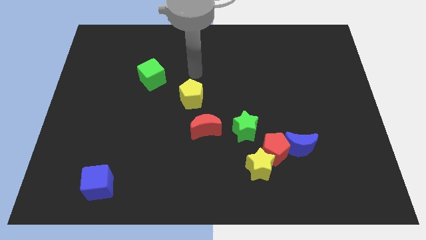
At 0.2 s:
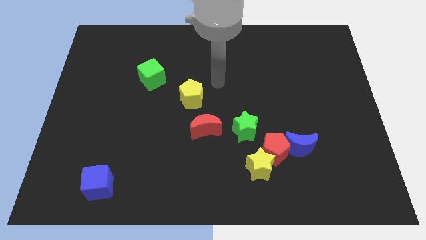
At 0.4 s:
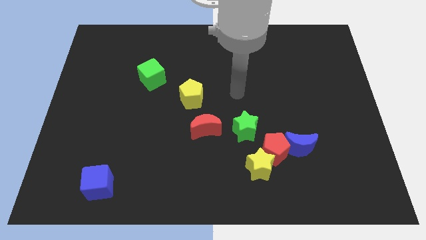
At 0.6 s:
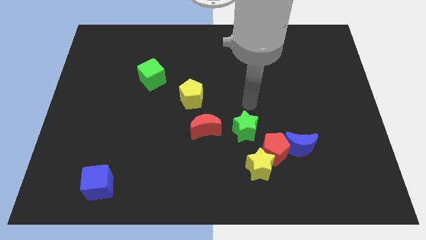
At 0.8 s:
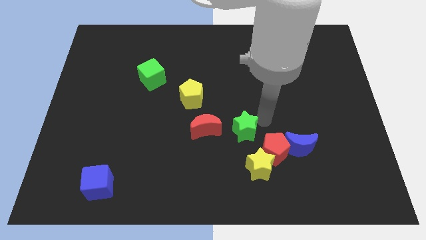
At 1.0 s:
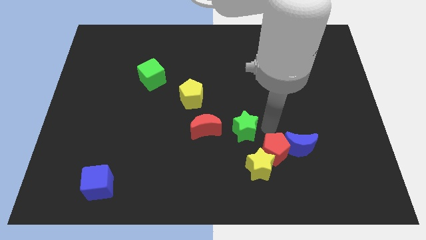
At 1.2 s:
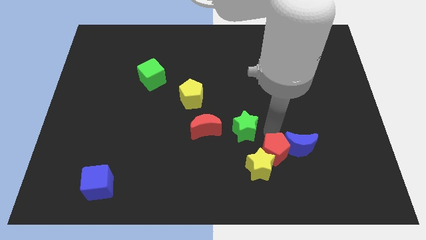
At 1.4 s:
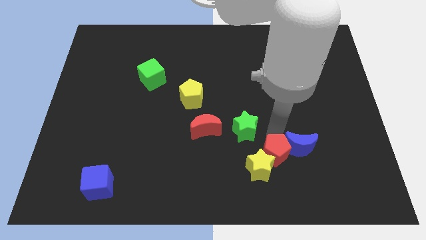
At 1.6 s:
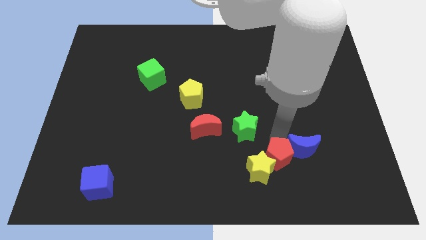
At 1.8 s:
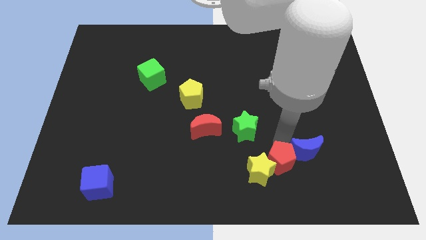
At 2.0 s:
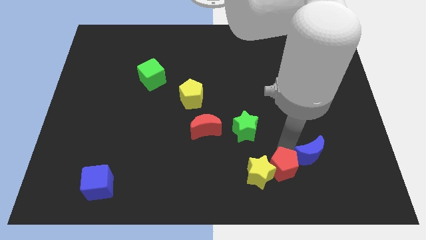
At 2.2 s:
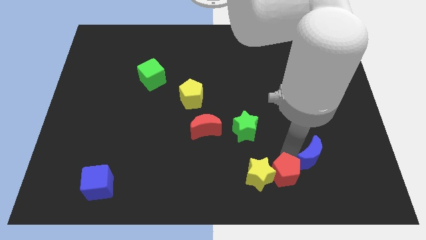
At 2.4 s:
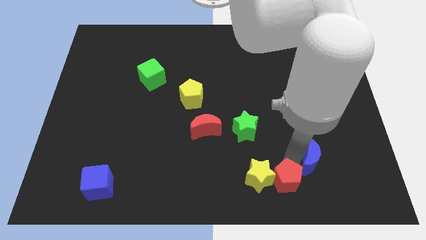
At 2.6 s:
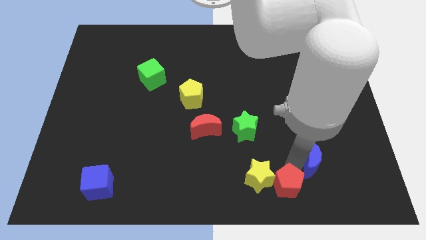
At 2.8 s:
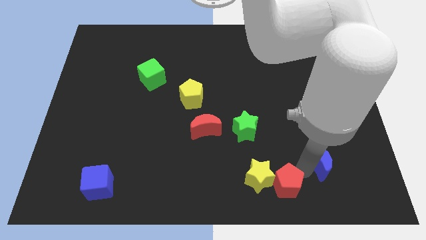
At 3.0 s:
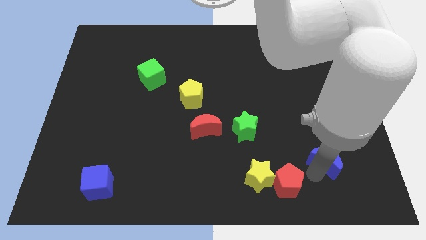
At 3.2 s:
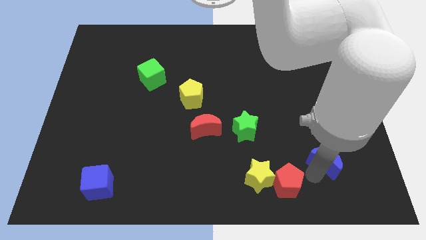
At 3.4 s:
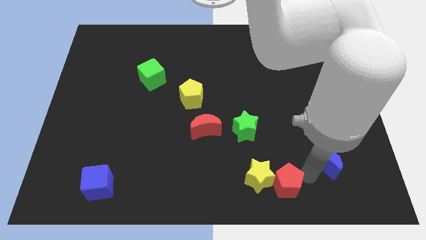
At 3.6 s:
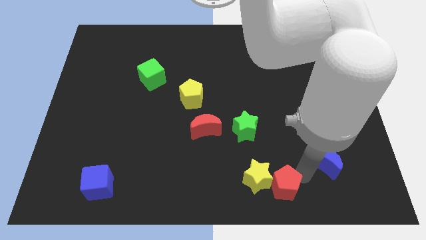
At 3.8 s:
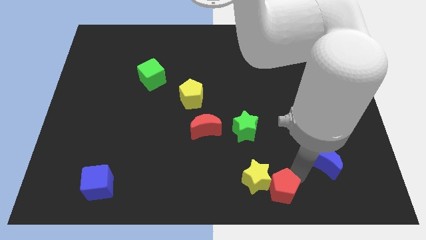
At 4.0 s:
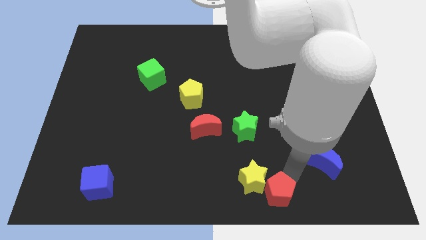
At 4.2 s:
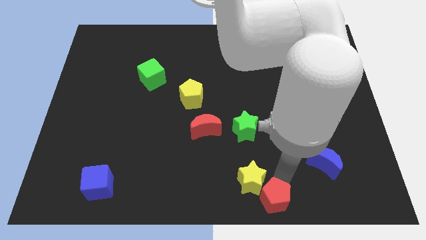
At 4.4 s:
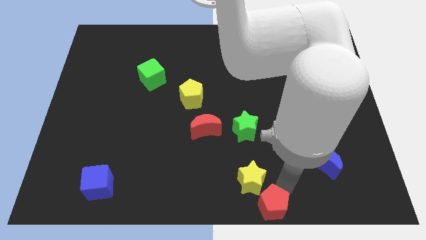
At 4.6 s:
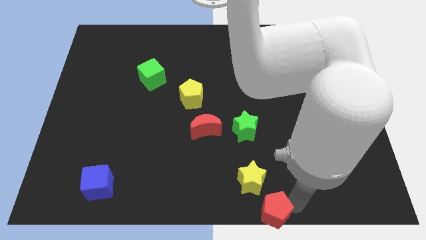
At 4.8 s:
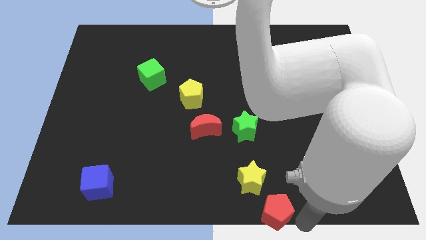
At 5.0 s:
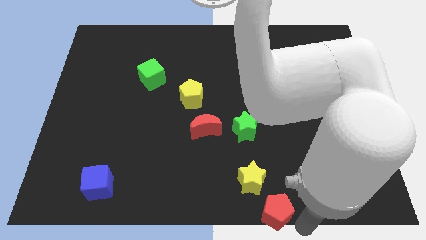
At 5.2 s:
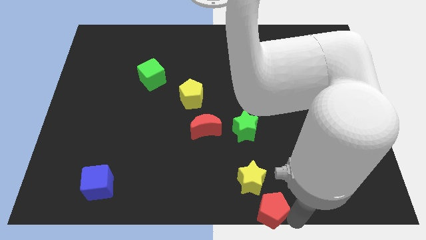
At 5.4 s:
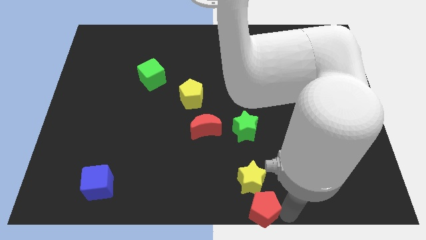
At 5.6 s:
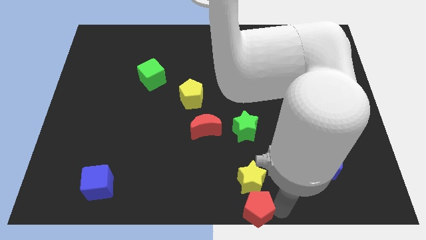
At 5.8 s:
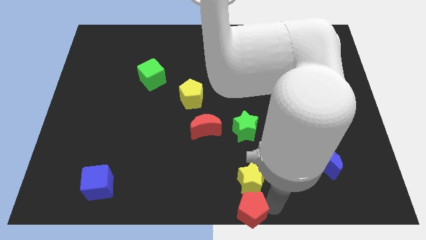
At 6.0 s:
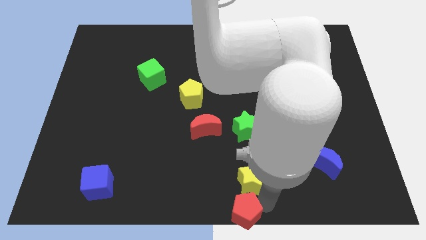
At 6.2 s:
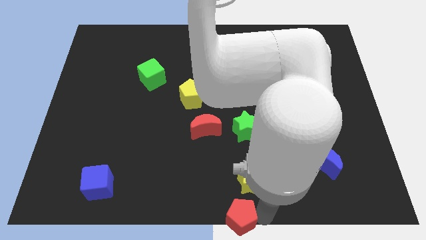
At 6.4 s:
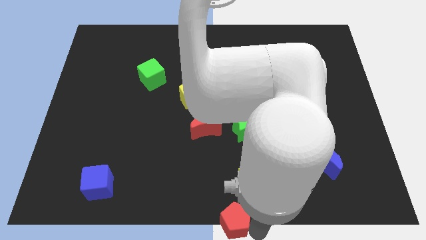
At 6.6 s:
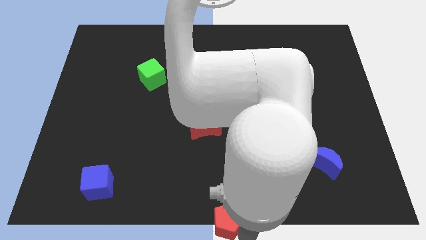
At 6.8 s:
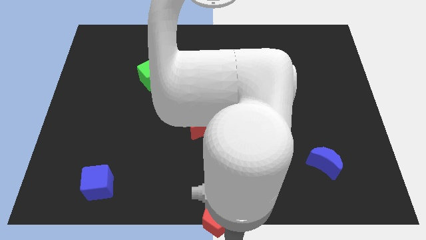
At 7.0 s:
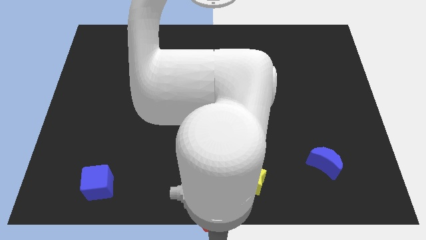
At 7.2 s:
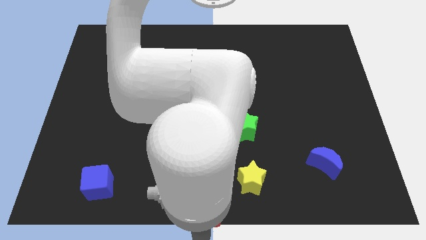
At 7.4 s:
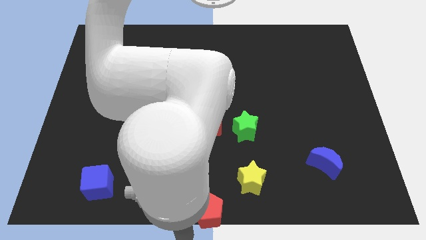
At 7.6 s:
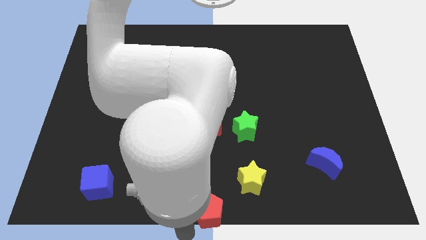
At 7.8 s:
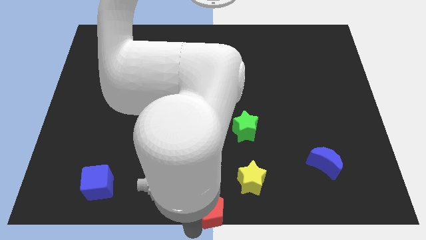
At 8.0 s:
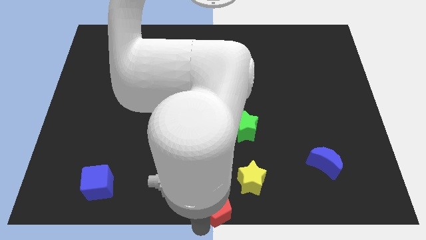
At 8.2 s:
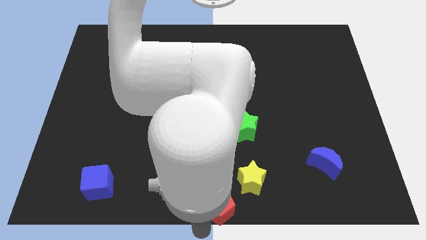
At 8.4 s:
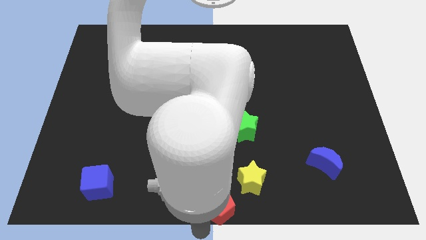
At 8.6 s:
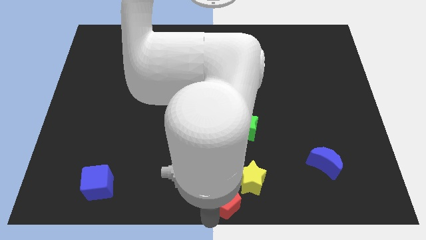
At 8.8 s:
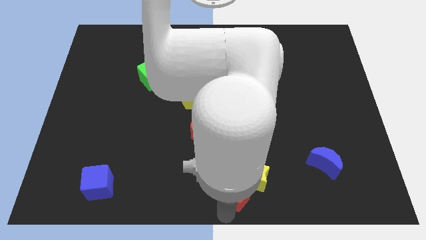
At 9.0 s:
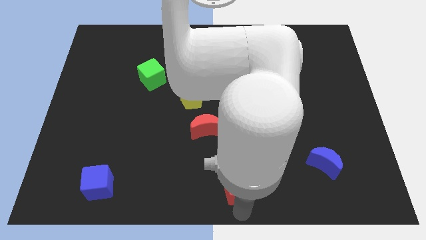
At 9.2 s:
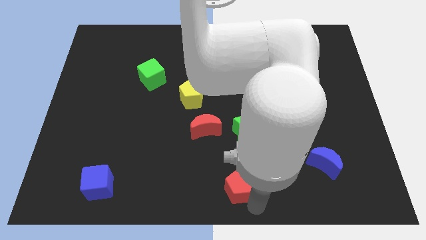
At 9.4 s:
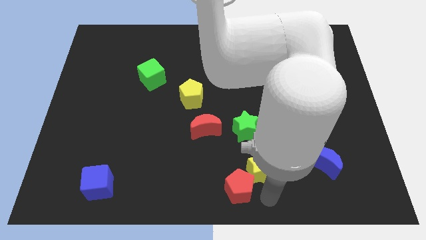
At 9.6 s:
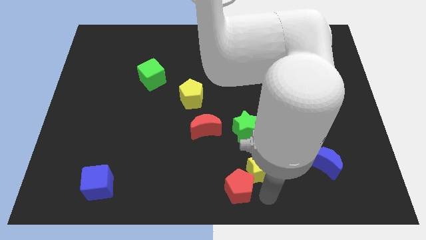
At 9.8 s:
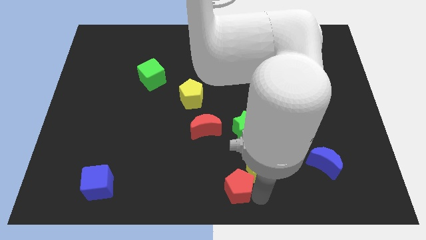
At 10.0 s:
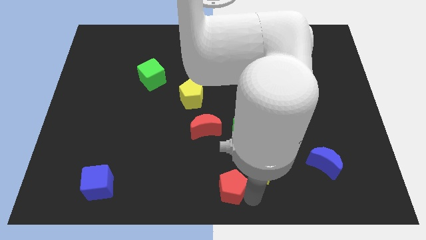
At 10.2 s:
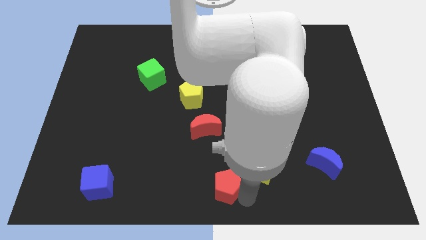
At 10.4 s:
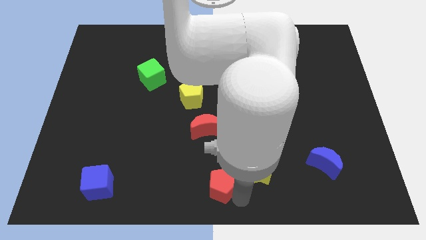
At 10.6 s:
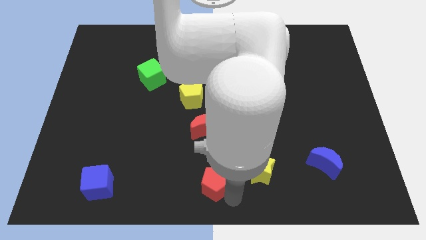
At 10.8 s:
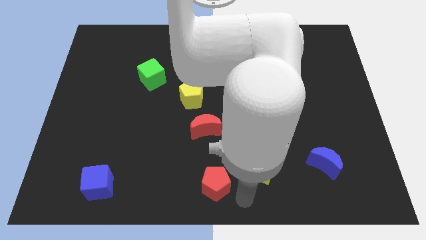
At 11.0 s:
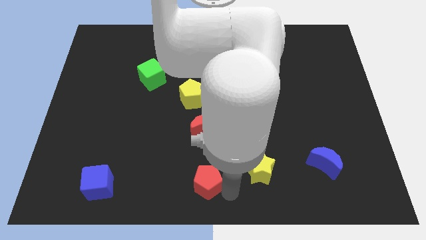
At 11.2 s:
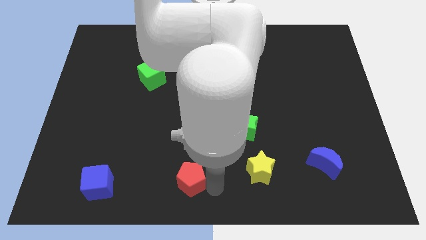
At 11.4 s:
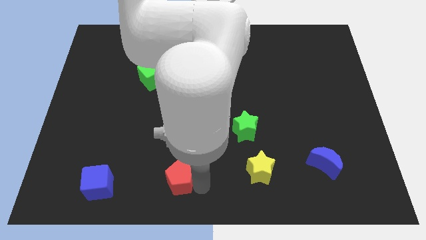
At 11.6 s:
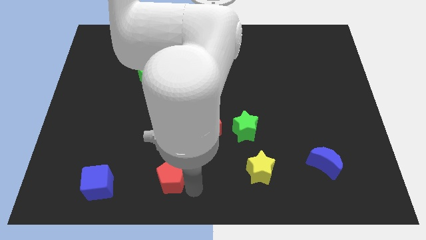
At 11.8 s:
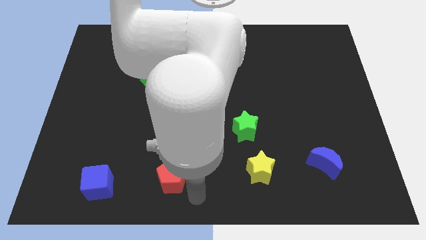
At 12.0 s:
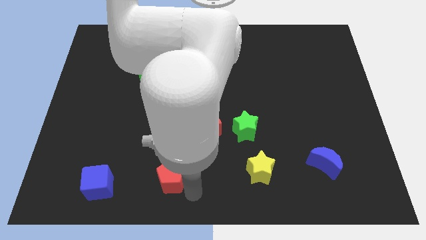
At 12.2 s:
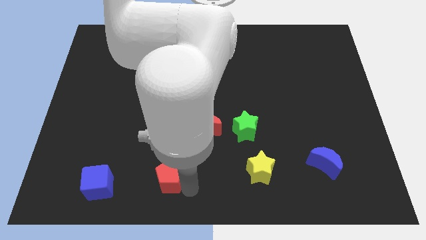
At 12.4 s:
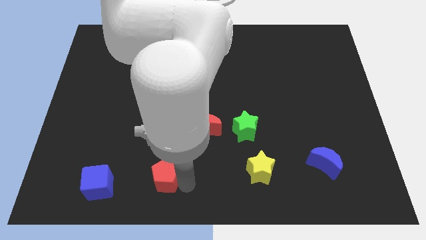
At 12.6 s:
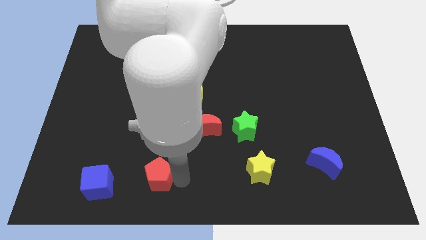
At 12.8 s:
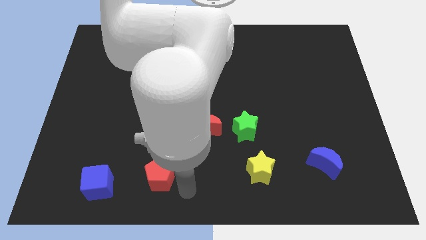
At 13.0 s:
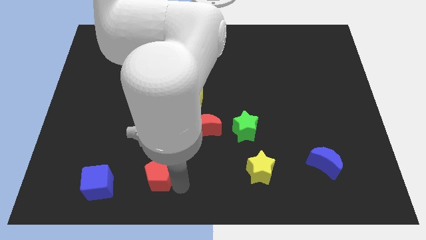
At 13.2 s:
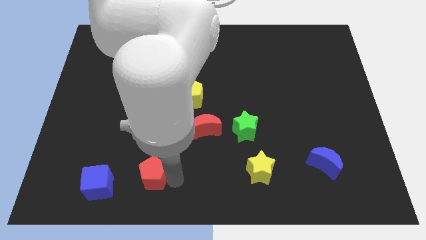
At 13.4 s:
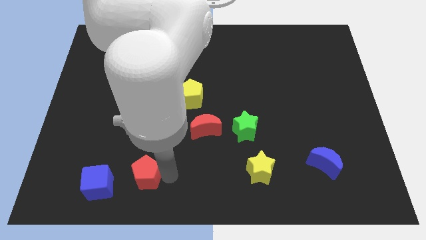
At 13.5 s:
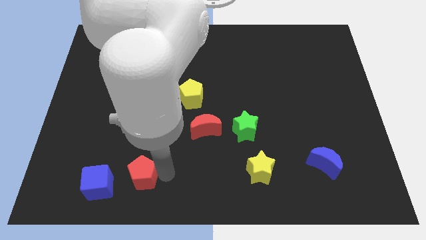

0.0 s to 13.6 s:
slide the red pentagon diagonally up and to the right of the blue cube

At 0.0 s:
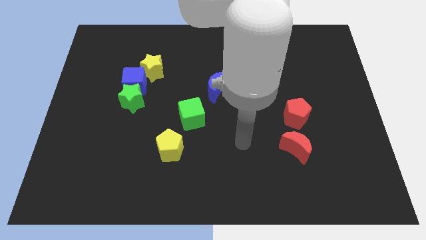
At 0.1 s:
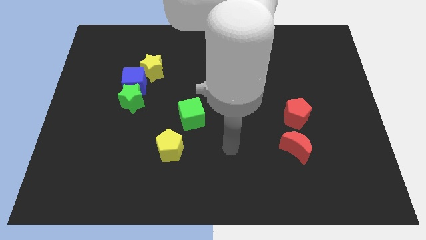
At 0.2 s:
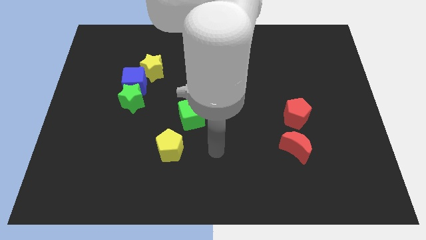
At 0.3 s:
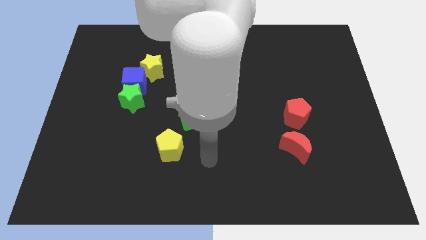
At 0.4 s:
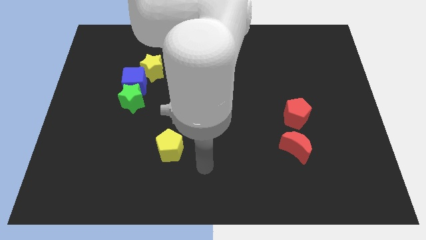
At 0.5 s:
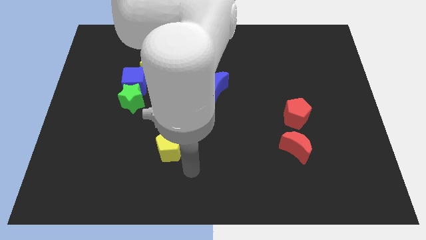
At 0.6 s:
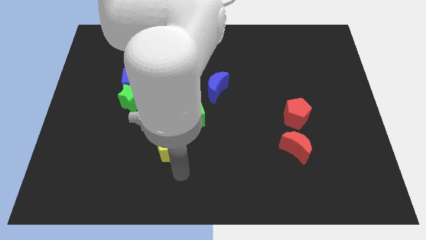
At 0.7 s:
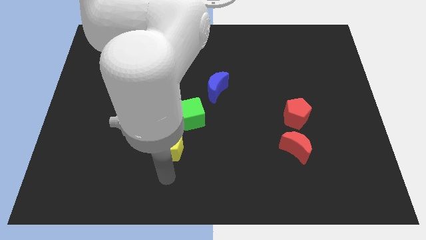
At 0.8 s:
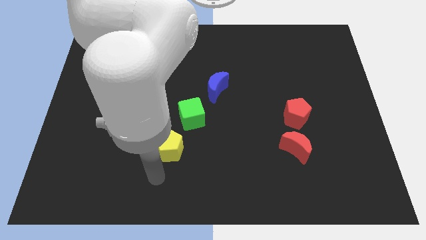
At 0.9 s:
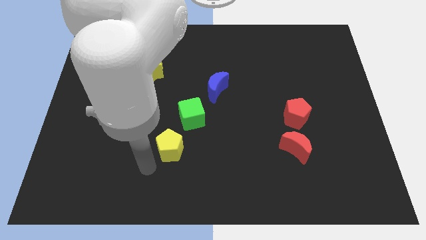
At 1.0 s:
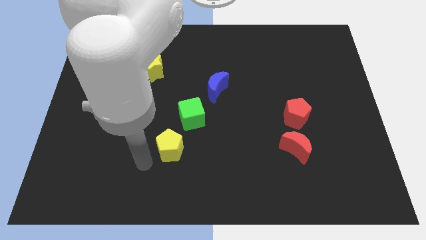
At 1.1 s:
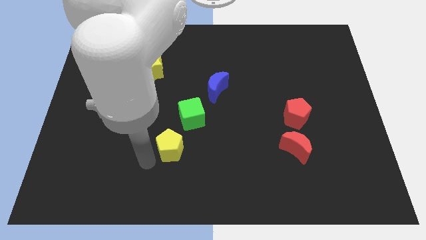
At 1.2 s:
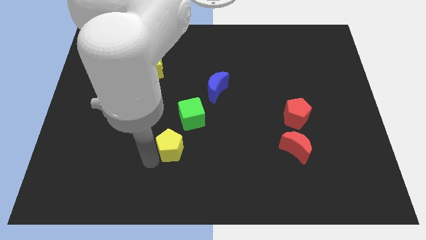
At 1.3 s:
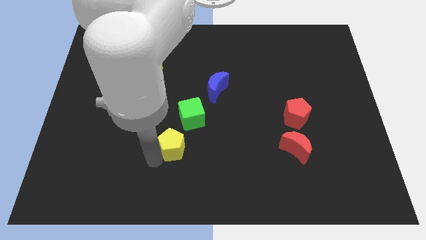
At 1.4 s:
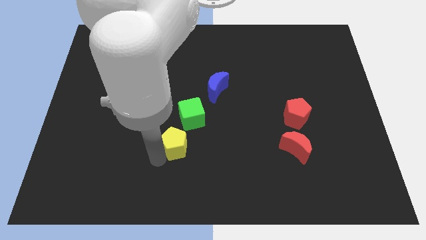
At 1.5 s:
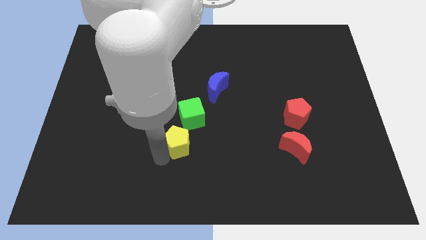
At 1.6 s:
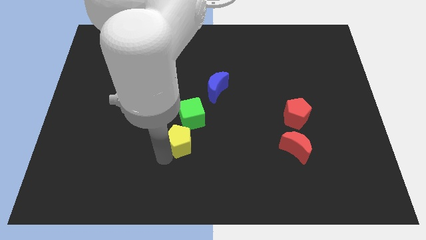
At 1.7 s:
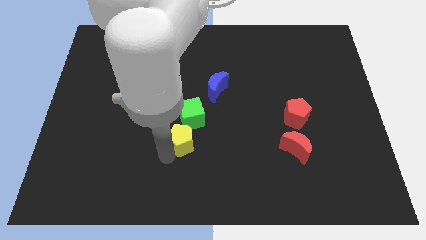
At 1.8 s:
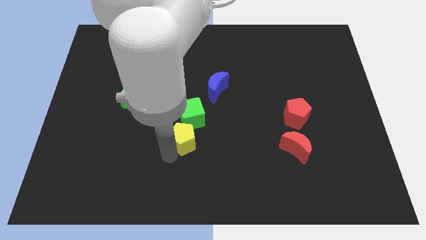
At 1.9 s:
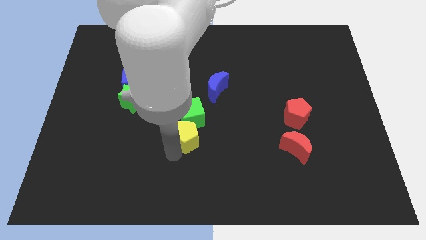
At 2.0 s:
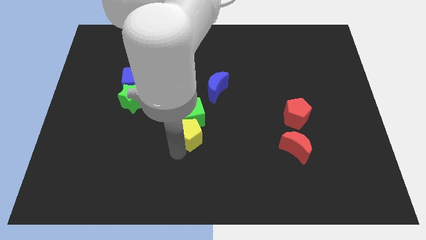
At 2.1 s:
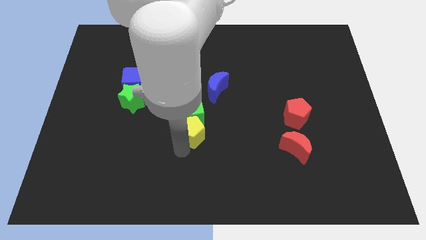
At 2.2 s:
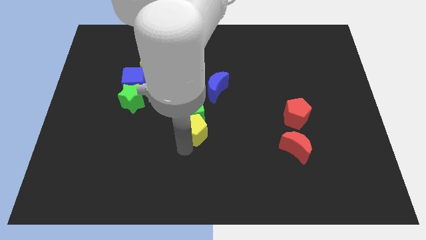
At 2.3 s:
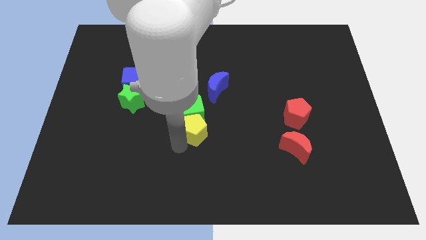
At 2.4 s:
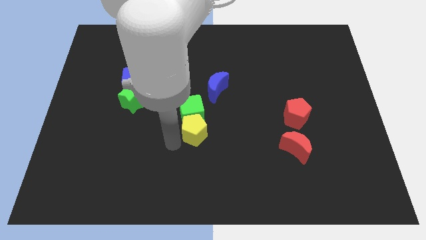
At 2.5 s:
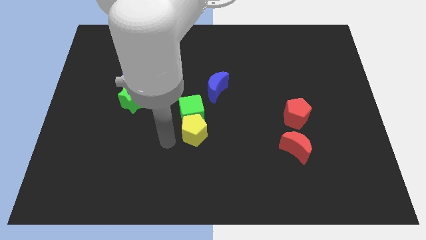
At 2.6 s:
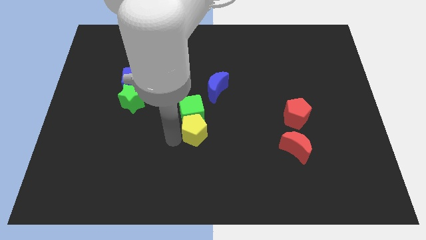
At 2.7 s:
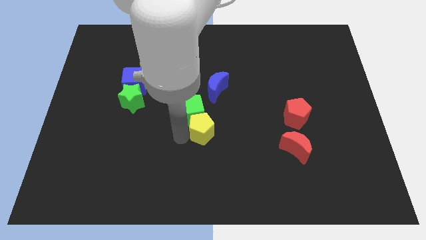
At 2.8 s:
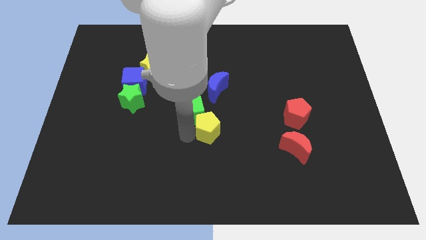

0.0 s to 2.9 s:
move the yellow pentagon just right of the green cube
